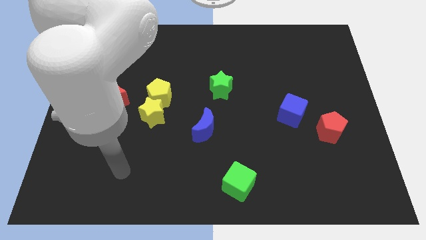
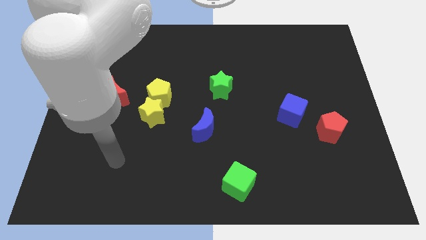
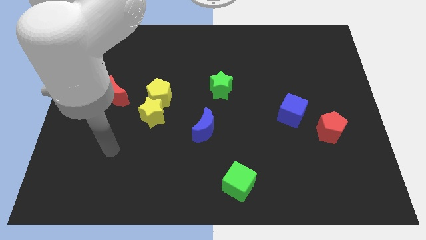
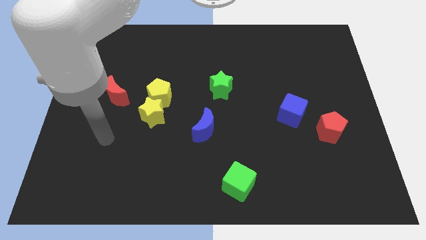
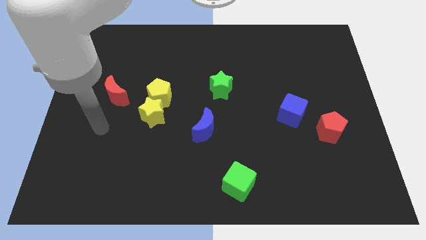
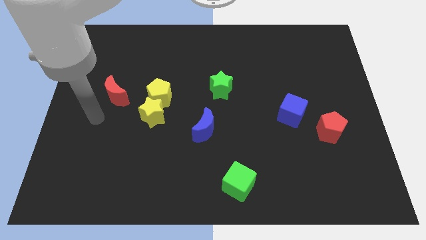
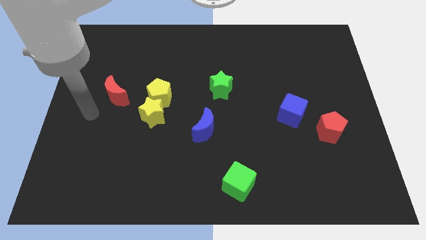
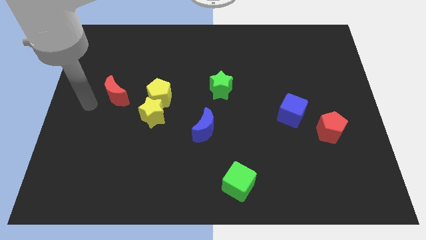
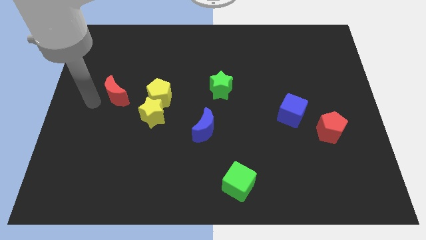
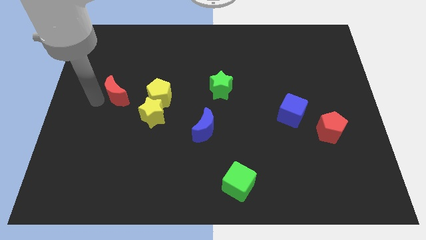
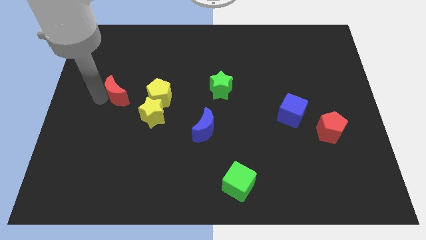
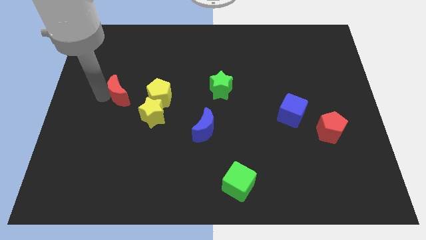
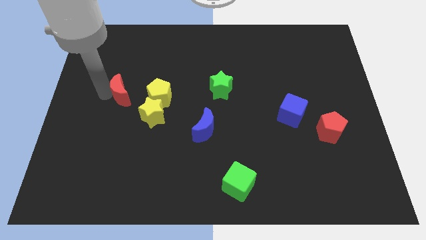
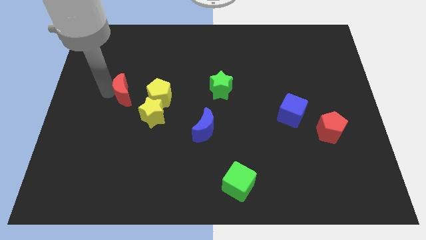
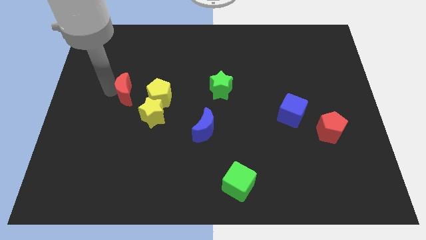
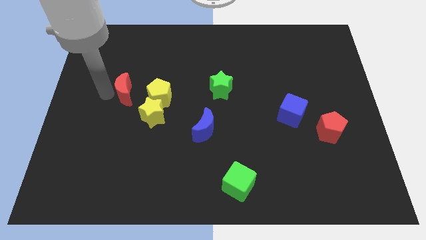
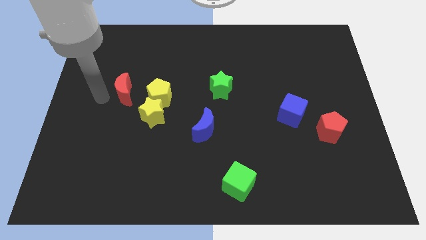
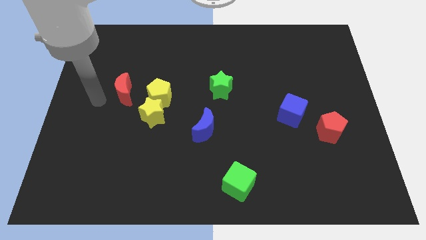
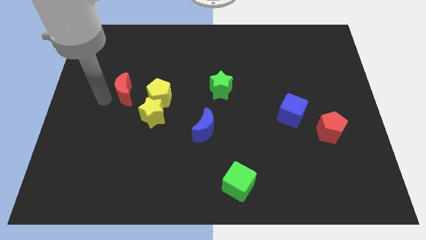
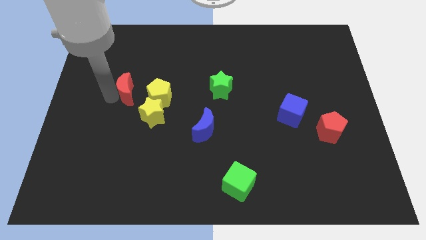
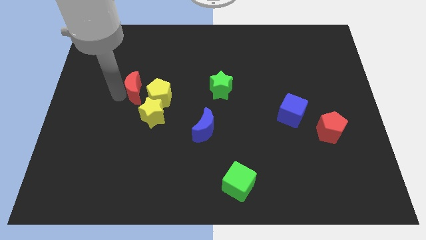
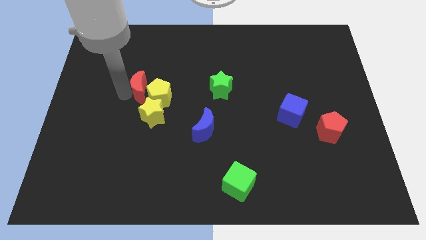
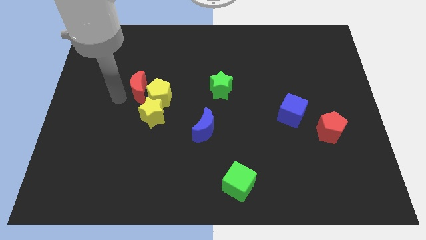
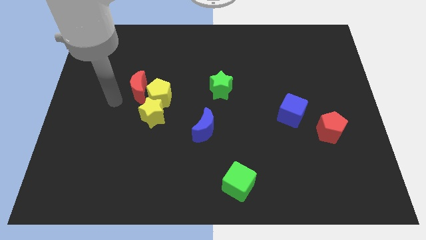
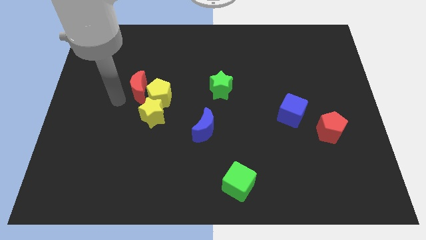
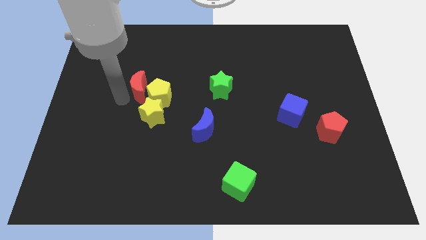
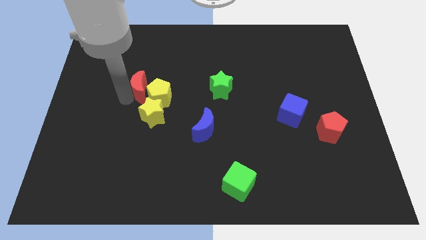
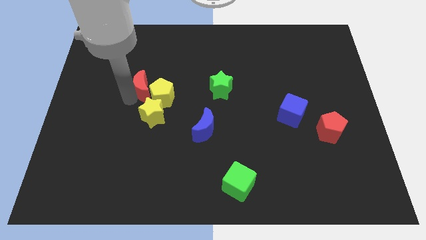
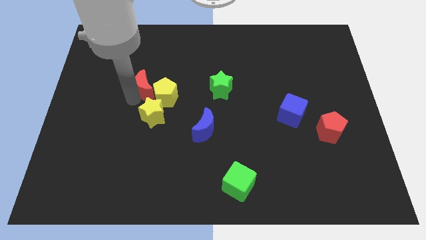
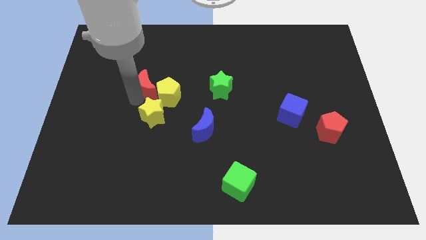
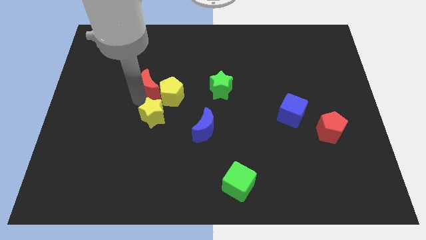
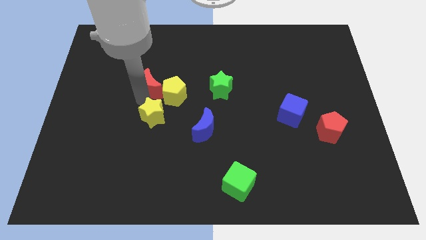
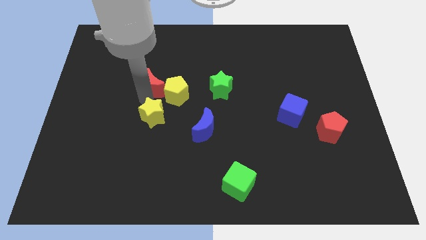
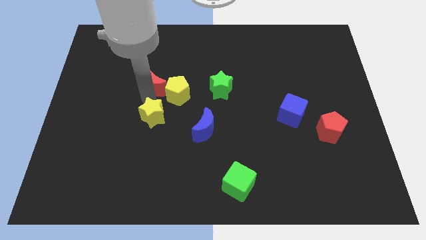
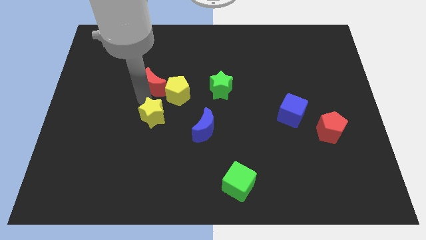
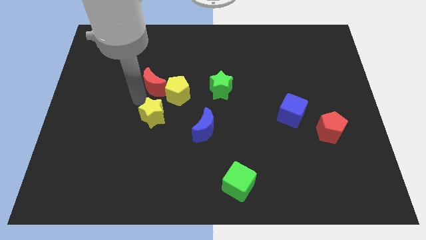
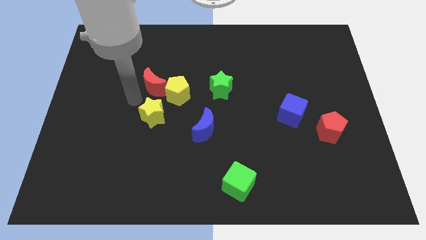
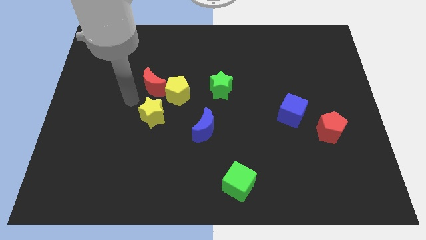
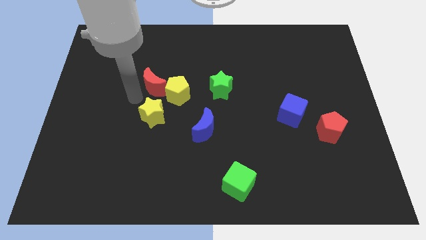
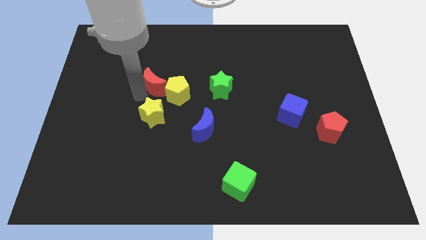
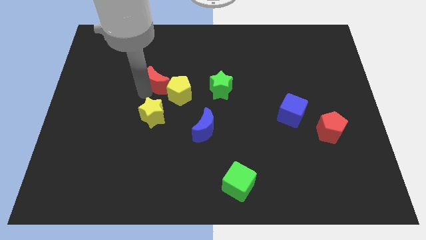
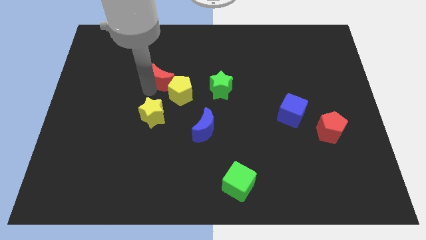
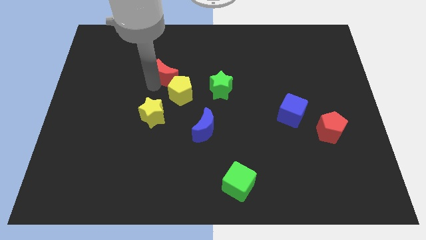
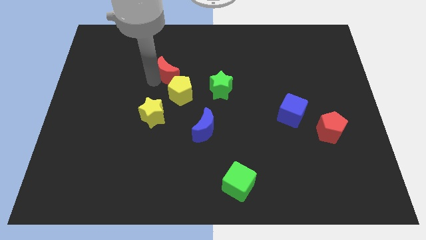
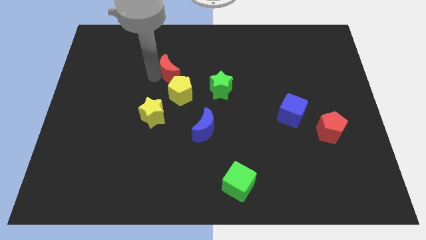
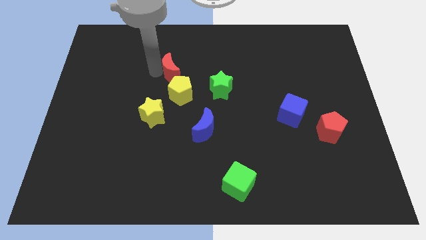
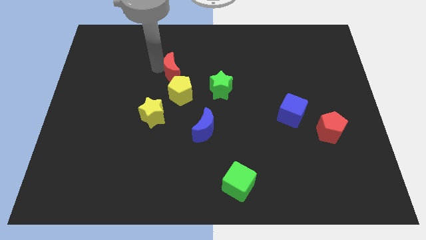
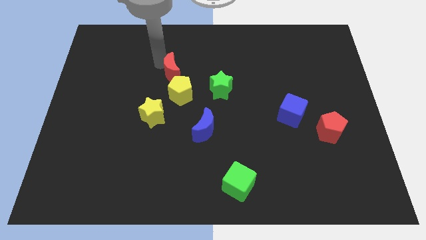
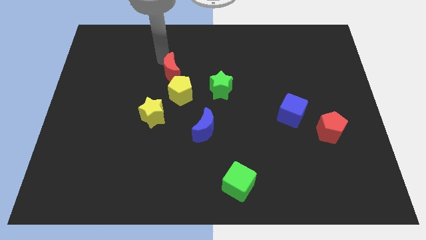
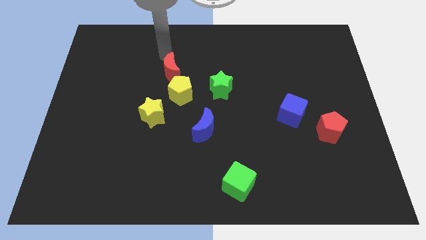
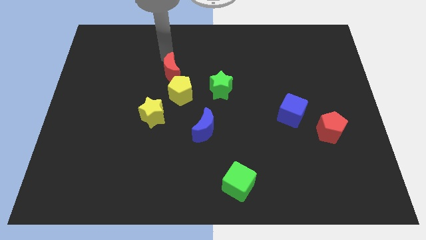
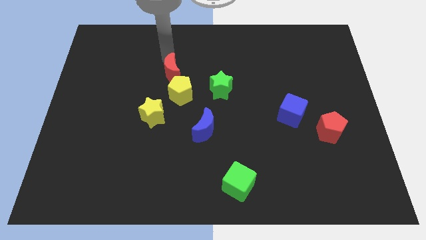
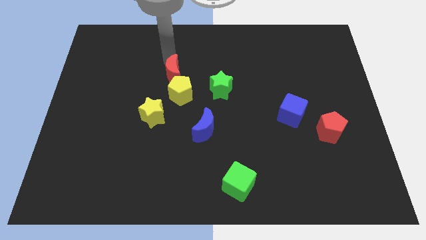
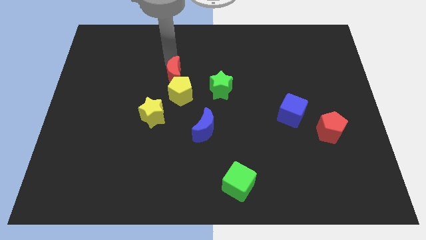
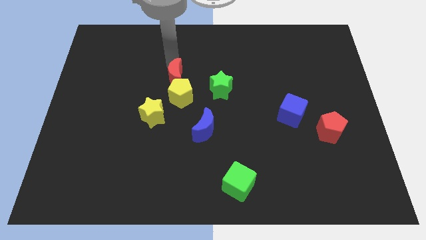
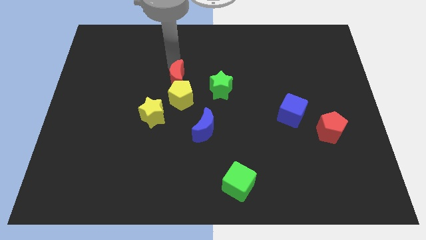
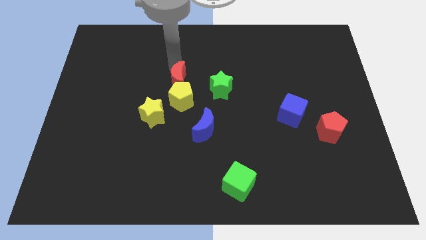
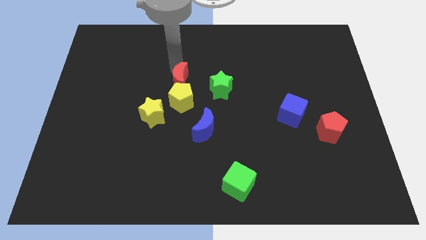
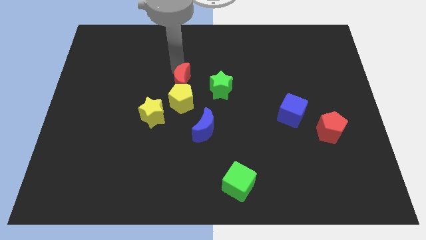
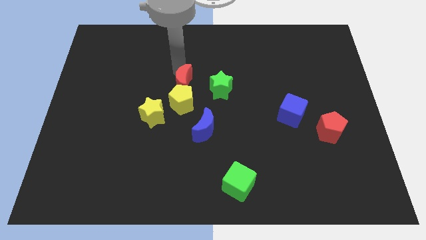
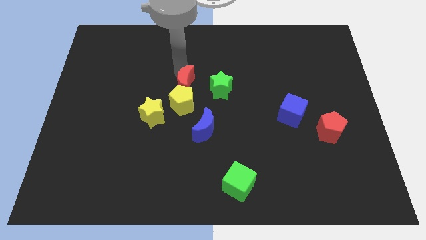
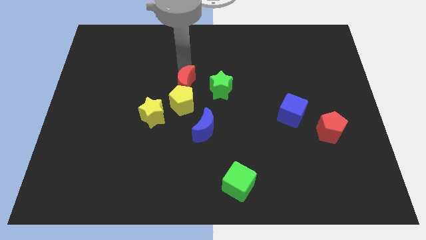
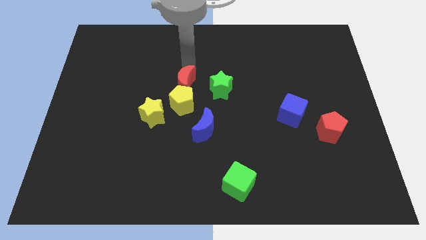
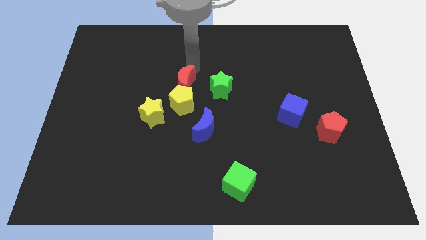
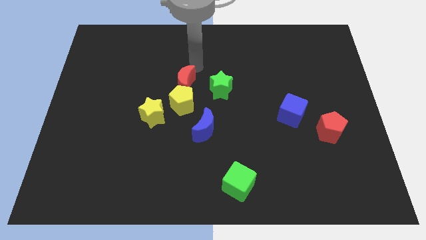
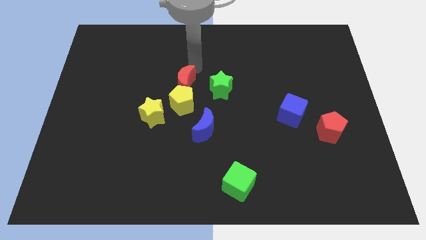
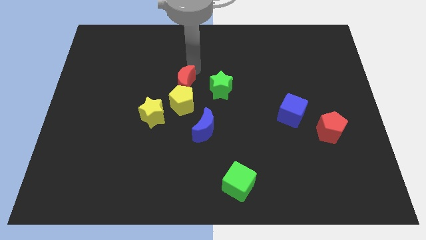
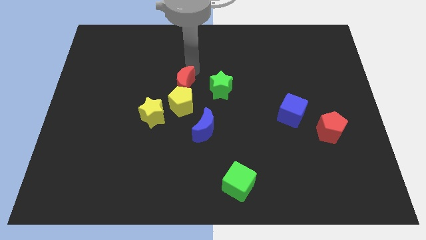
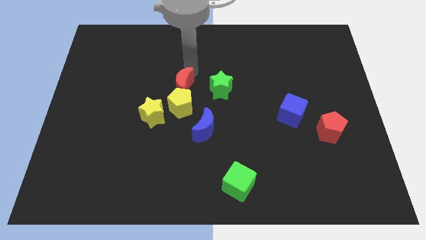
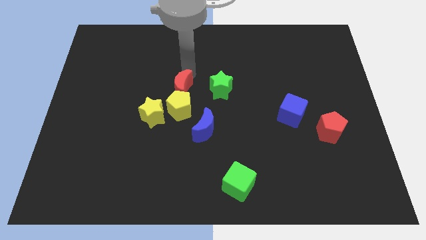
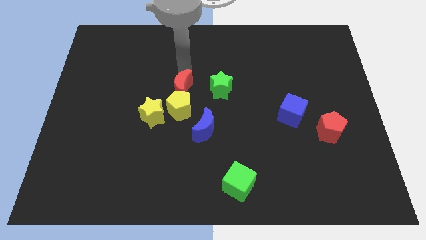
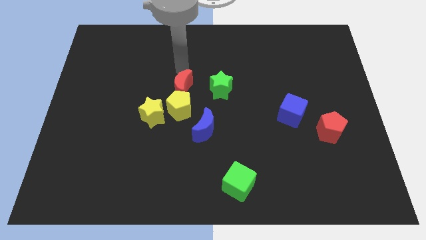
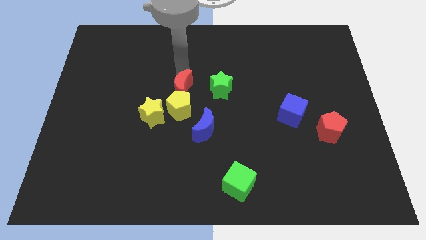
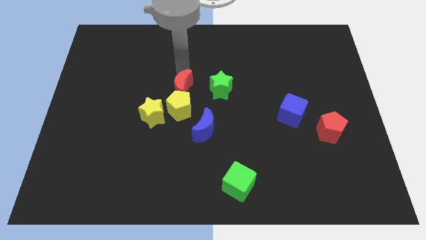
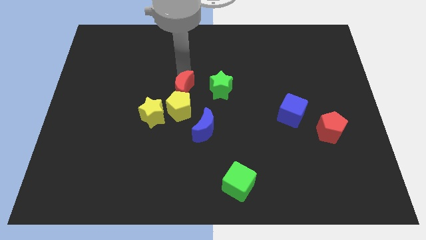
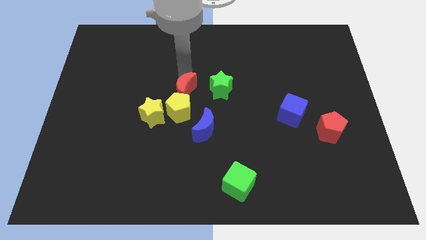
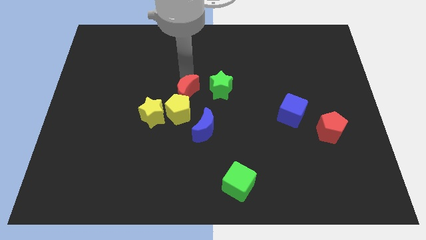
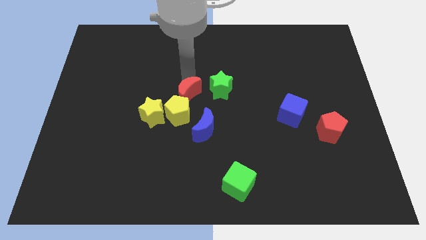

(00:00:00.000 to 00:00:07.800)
move the red moon to the top left side of the blue moon
